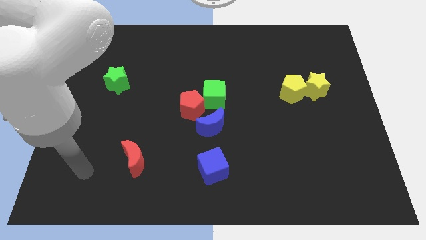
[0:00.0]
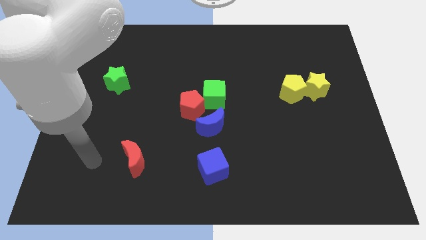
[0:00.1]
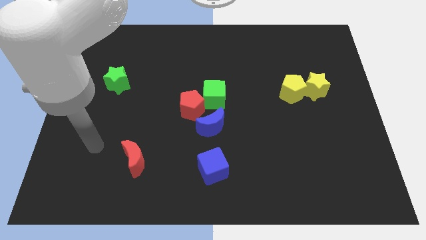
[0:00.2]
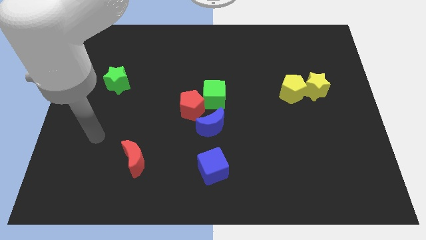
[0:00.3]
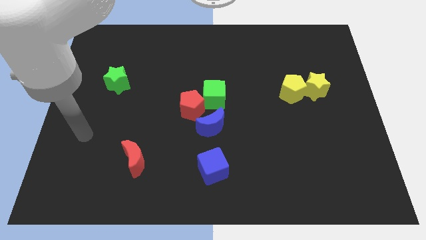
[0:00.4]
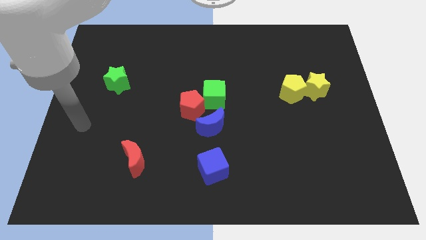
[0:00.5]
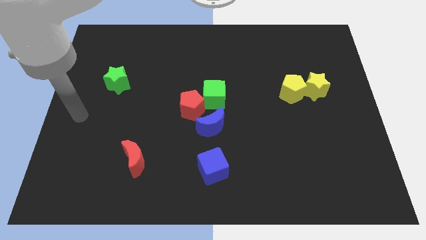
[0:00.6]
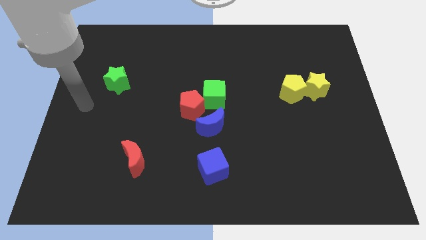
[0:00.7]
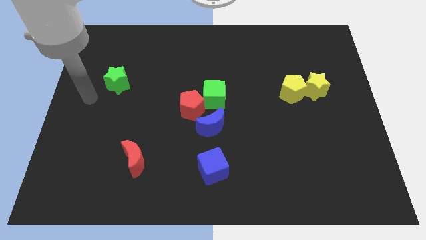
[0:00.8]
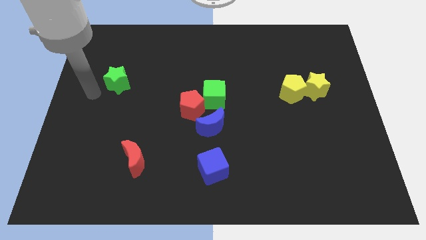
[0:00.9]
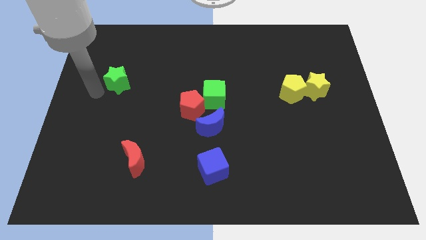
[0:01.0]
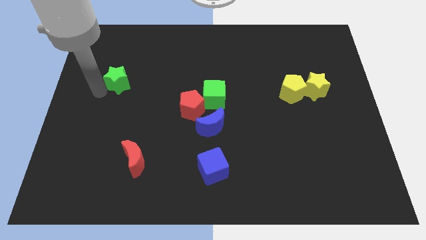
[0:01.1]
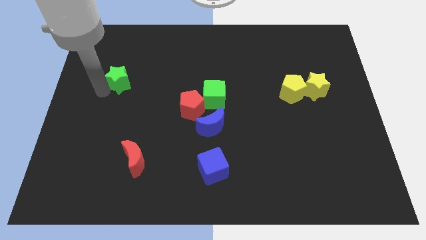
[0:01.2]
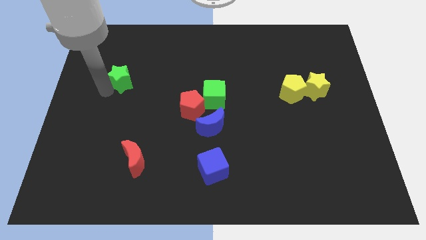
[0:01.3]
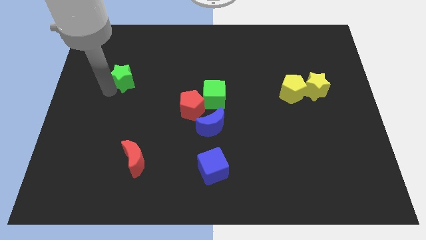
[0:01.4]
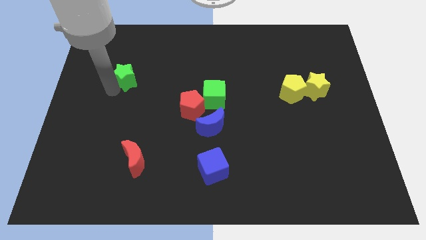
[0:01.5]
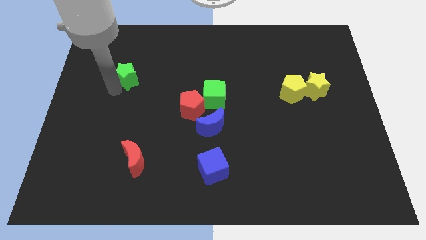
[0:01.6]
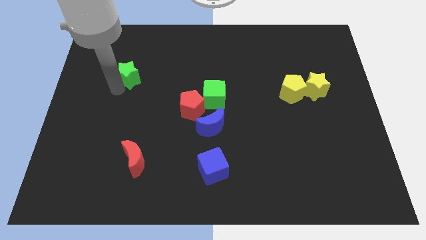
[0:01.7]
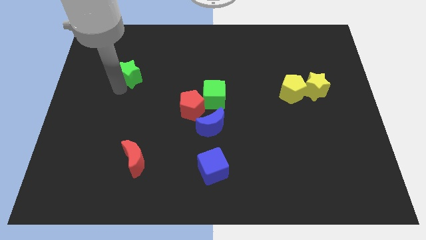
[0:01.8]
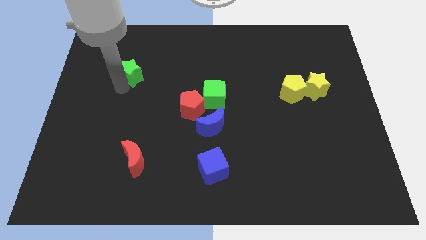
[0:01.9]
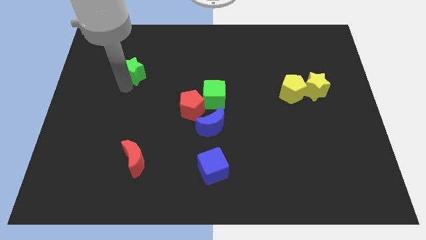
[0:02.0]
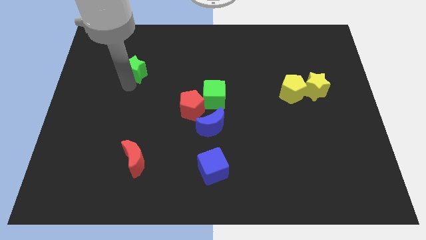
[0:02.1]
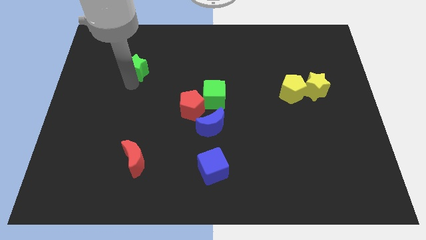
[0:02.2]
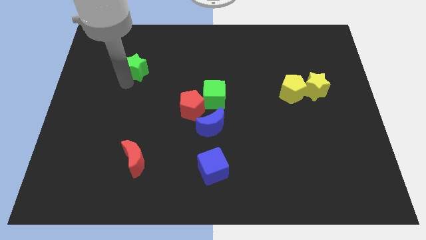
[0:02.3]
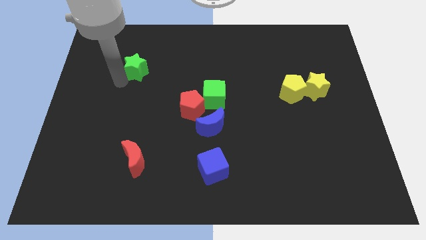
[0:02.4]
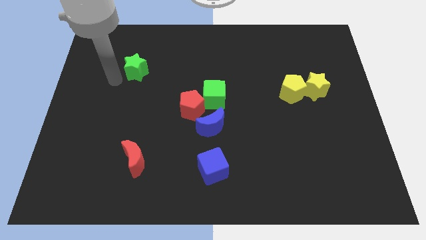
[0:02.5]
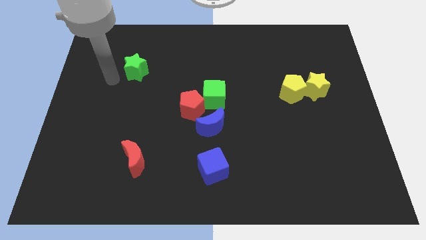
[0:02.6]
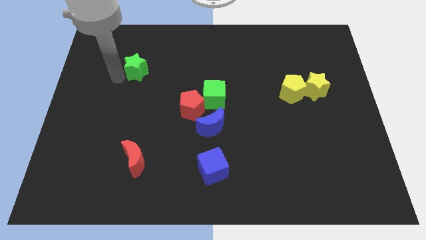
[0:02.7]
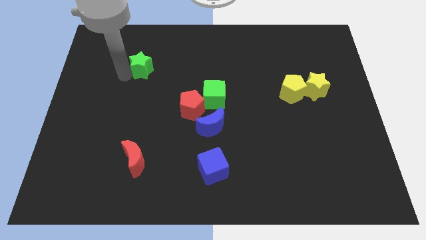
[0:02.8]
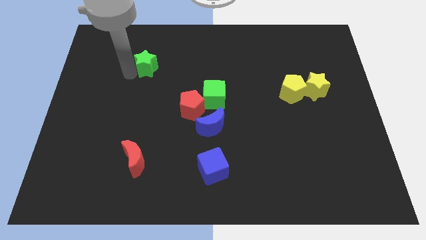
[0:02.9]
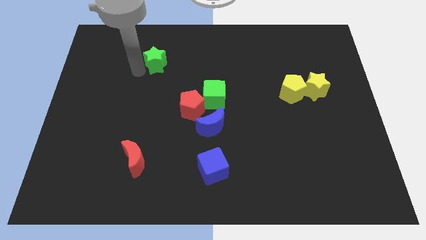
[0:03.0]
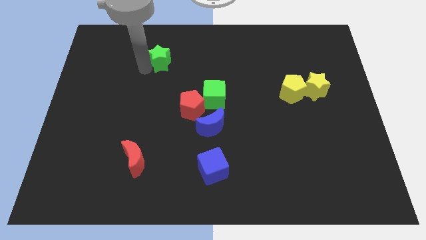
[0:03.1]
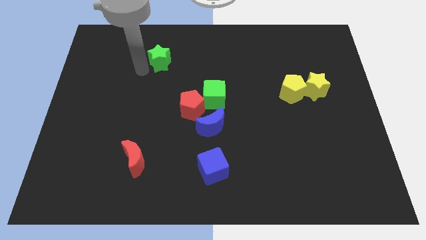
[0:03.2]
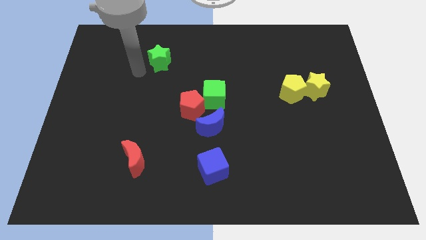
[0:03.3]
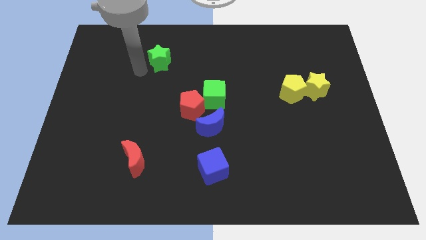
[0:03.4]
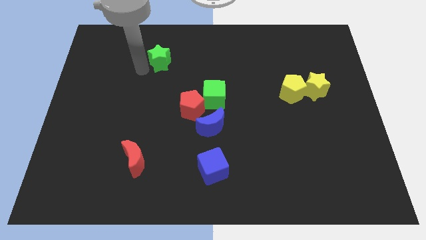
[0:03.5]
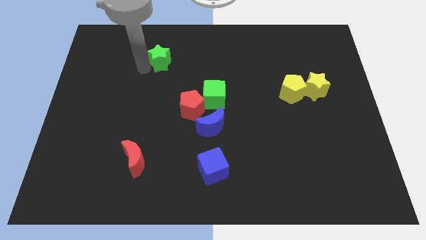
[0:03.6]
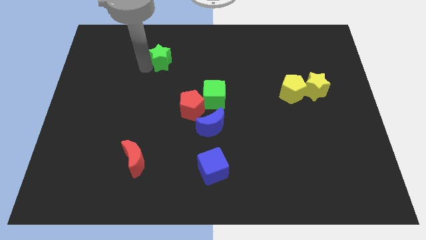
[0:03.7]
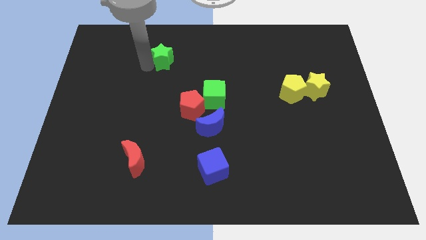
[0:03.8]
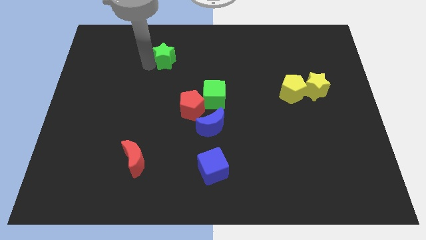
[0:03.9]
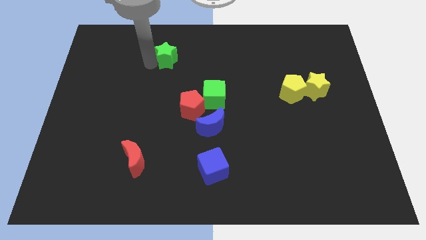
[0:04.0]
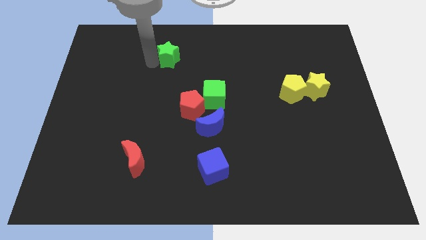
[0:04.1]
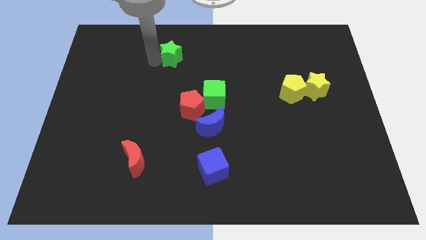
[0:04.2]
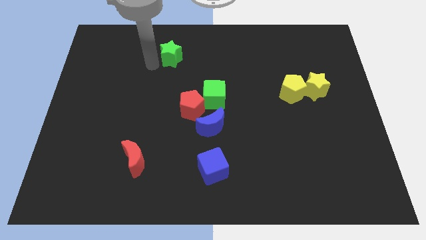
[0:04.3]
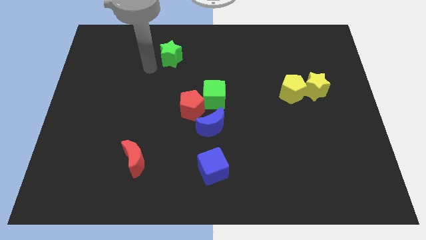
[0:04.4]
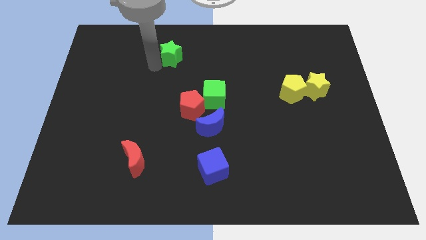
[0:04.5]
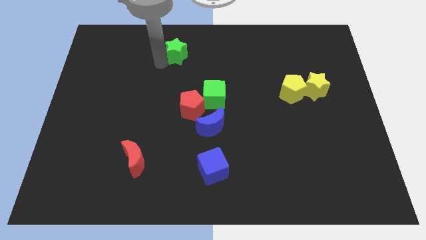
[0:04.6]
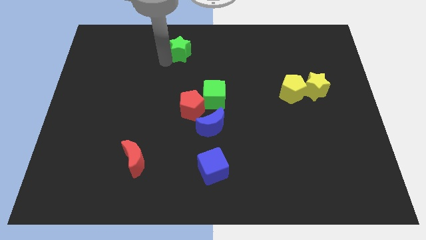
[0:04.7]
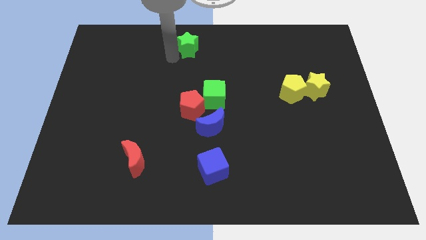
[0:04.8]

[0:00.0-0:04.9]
slide the green star to the top

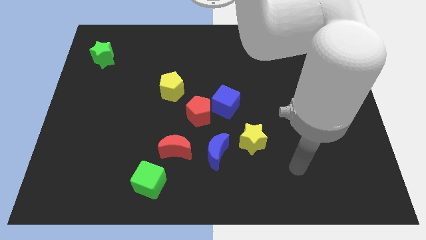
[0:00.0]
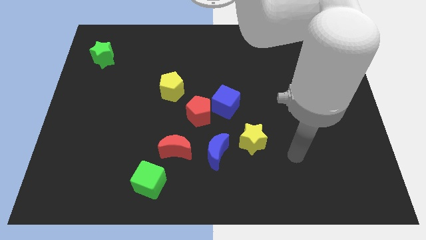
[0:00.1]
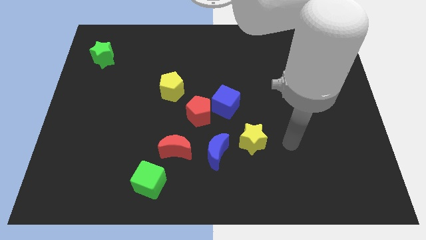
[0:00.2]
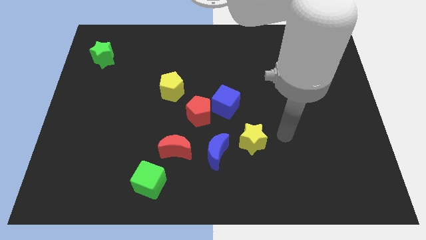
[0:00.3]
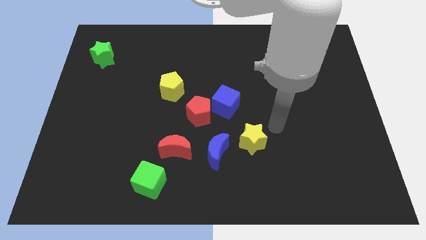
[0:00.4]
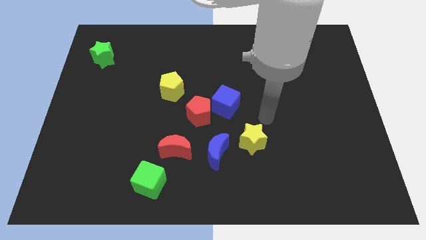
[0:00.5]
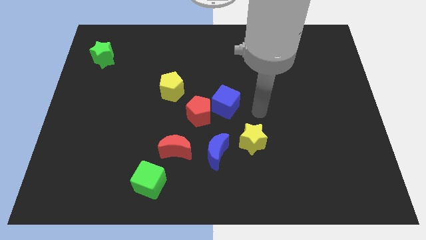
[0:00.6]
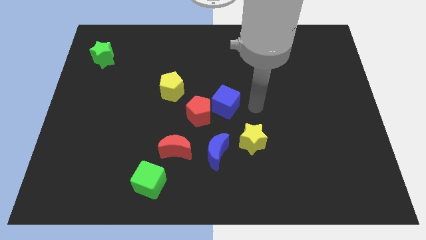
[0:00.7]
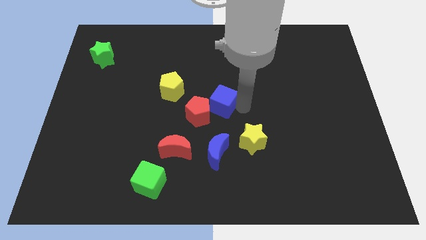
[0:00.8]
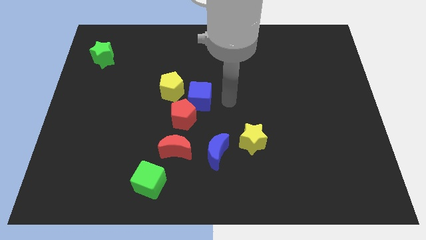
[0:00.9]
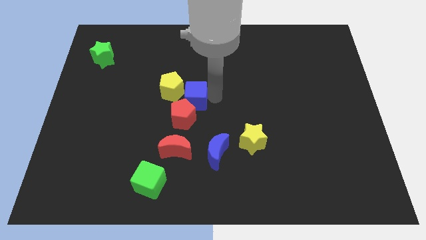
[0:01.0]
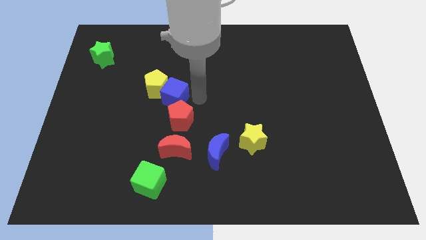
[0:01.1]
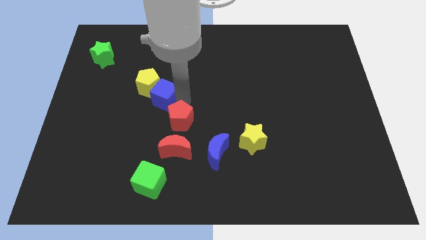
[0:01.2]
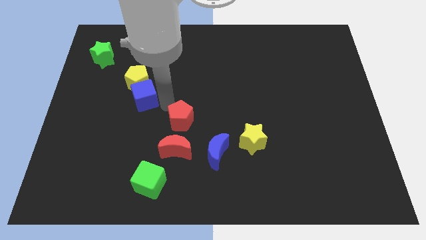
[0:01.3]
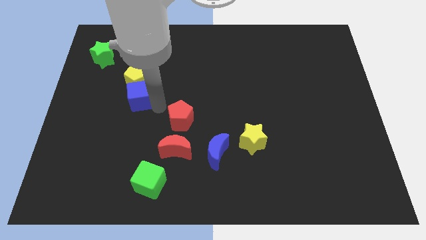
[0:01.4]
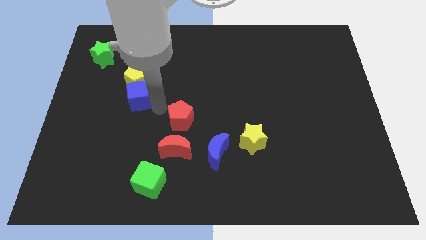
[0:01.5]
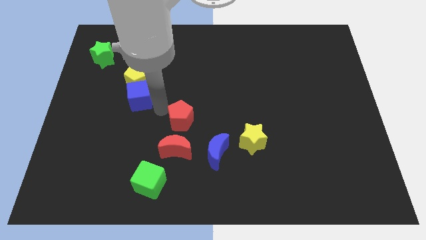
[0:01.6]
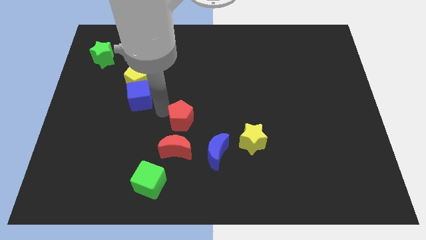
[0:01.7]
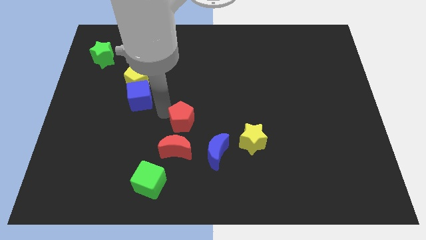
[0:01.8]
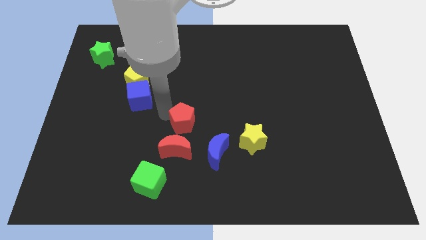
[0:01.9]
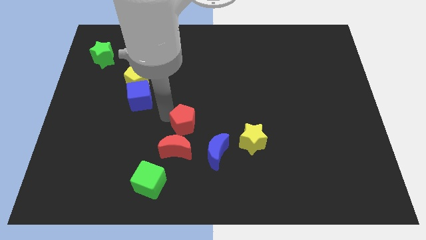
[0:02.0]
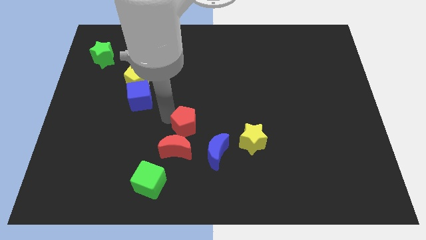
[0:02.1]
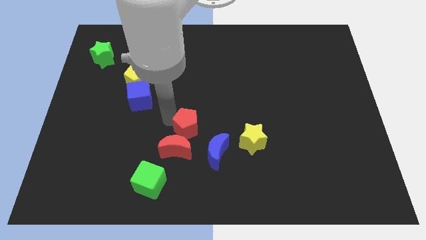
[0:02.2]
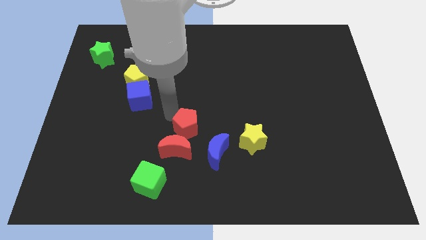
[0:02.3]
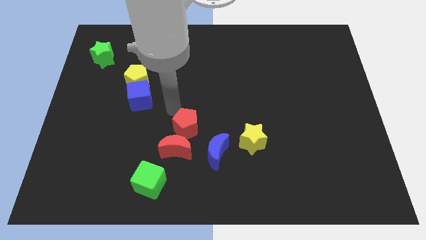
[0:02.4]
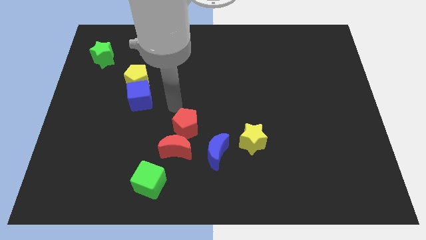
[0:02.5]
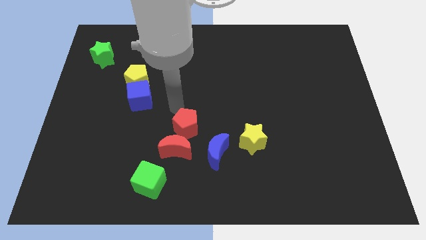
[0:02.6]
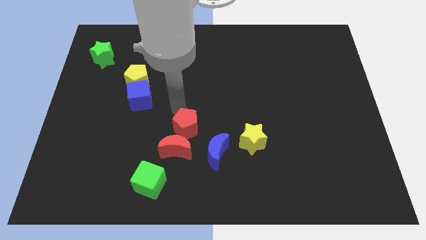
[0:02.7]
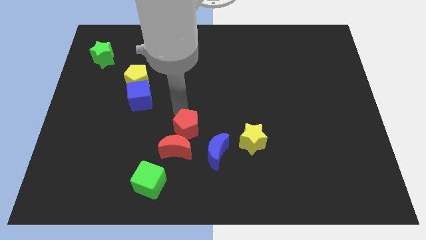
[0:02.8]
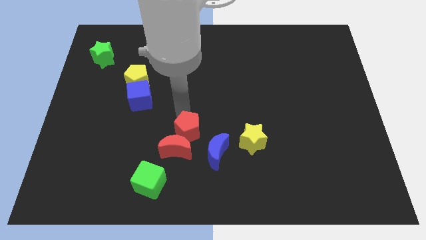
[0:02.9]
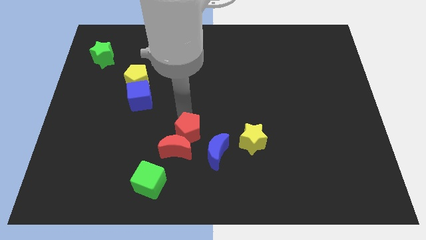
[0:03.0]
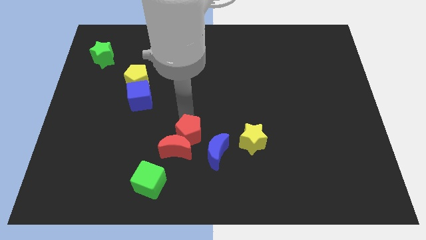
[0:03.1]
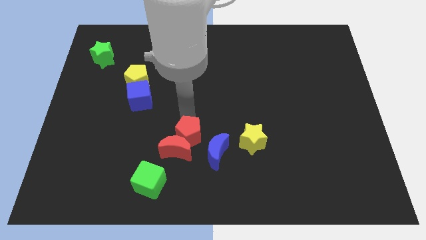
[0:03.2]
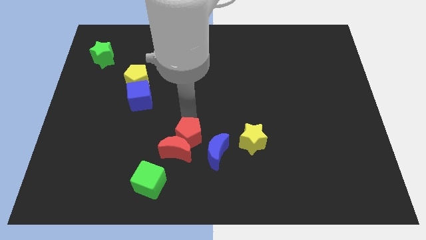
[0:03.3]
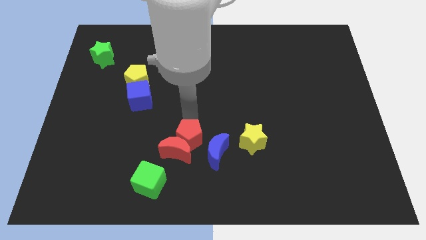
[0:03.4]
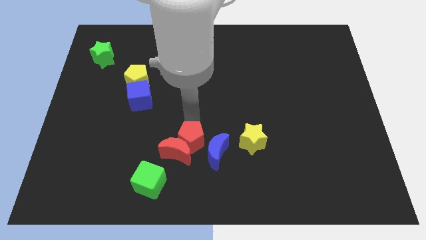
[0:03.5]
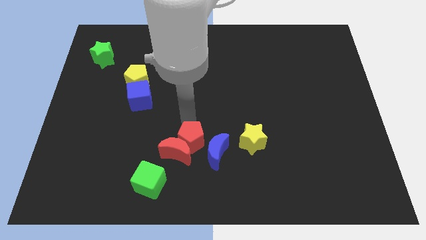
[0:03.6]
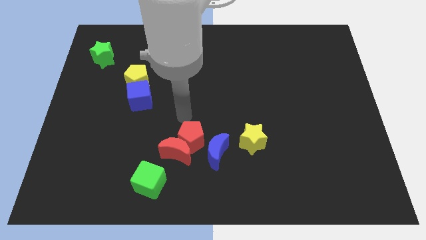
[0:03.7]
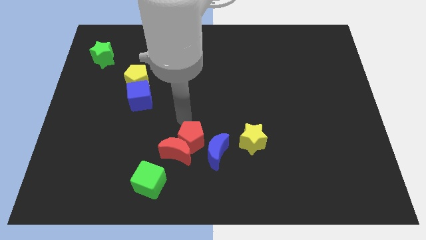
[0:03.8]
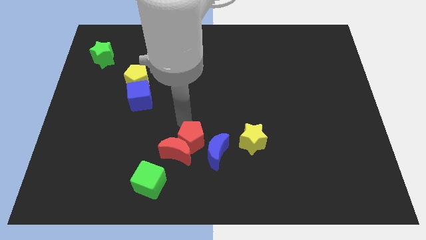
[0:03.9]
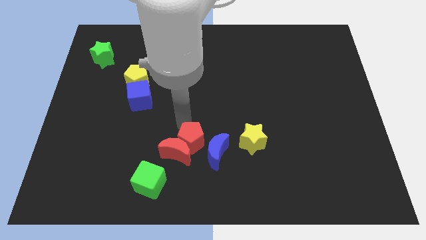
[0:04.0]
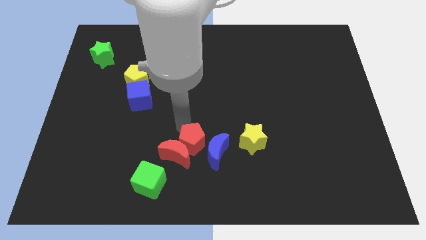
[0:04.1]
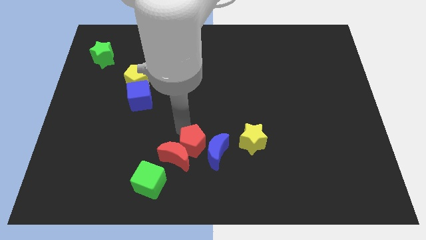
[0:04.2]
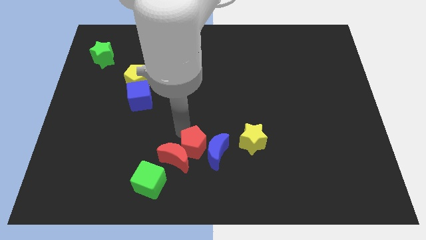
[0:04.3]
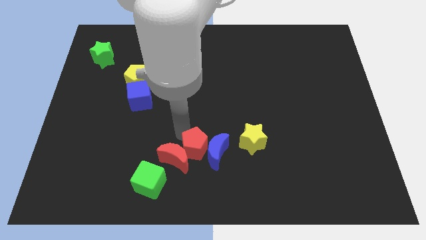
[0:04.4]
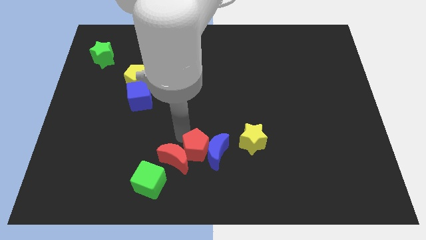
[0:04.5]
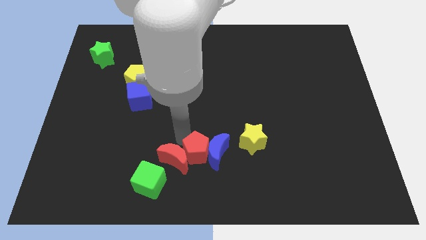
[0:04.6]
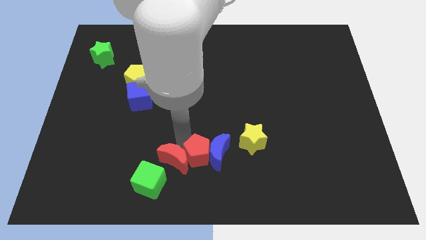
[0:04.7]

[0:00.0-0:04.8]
slide the red pentagon to the bottom side
